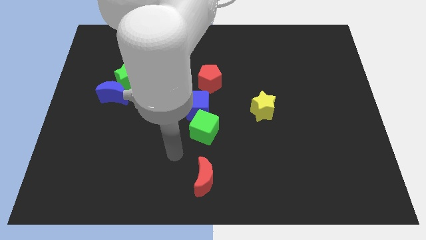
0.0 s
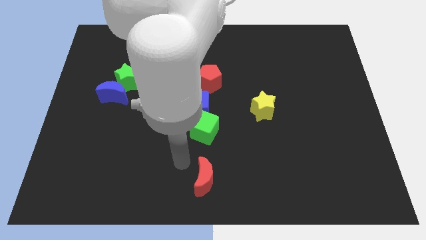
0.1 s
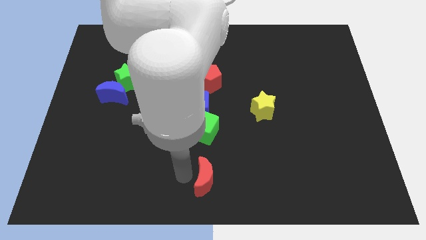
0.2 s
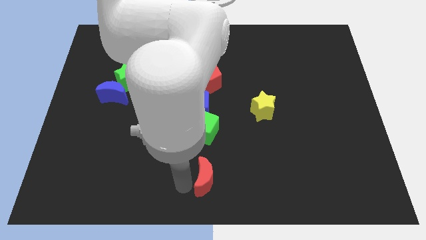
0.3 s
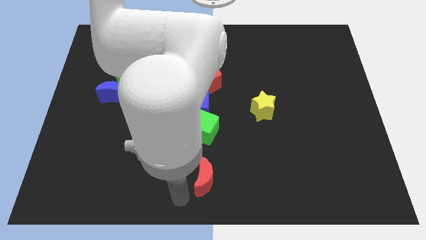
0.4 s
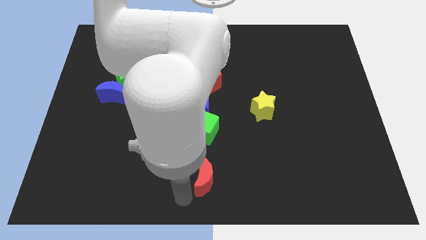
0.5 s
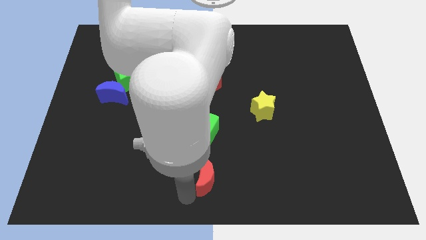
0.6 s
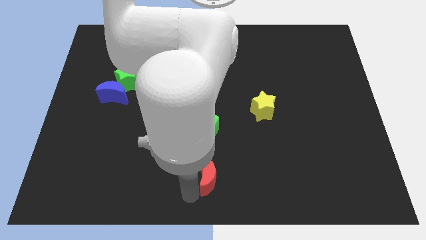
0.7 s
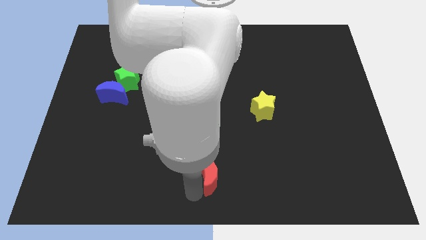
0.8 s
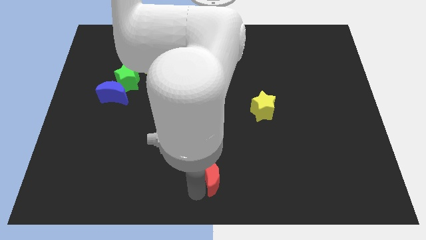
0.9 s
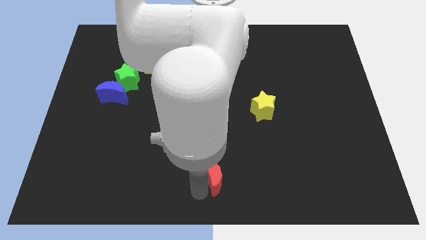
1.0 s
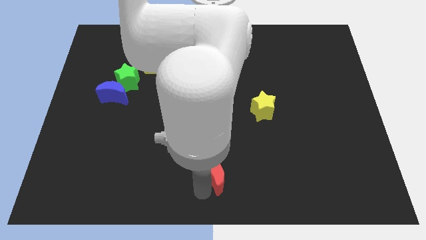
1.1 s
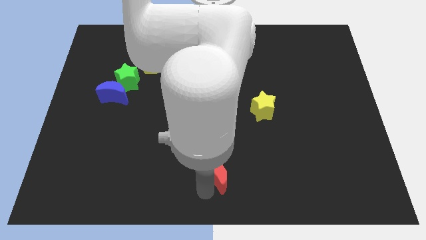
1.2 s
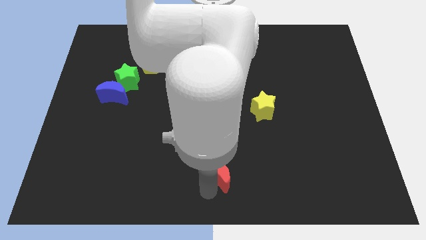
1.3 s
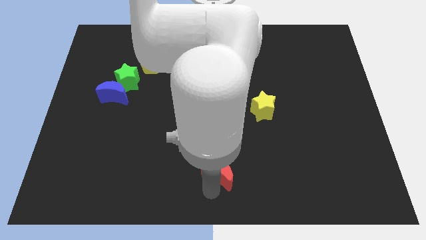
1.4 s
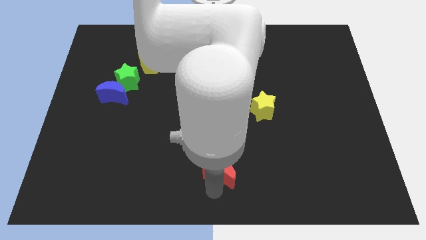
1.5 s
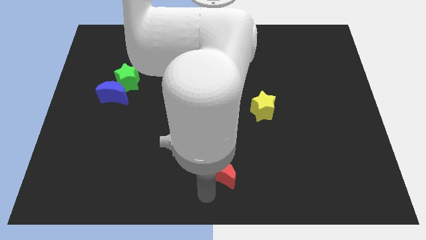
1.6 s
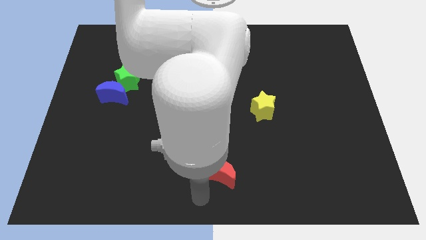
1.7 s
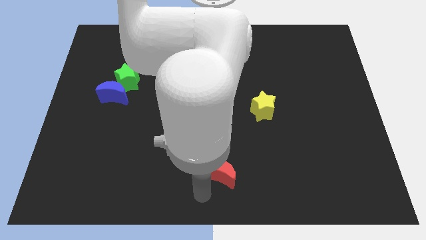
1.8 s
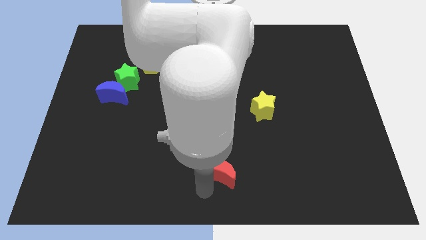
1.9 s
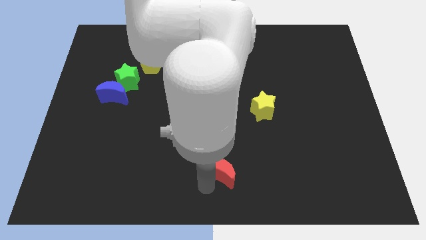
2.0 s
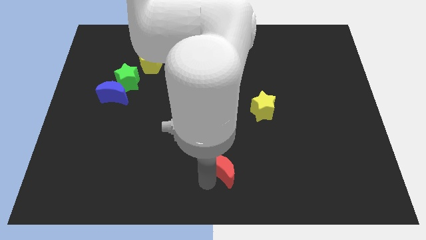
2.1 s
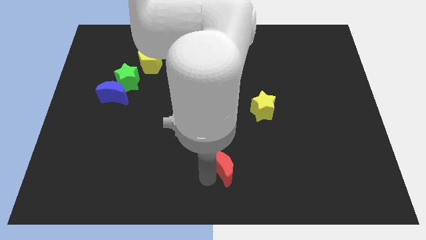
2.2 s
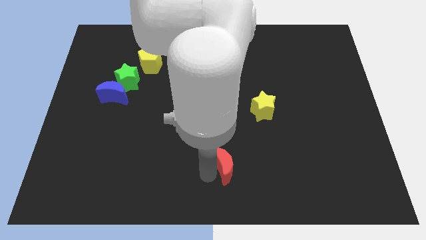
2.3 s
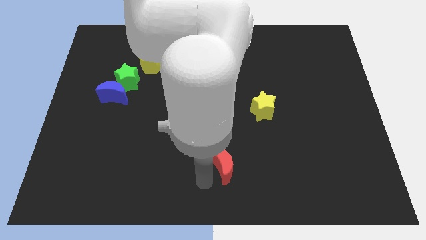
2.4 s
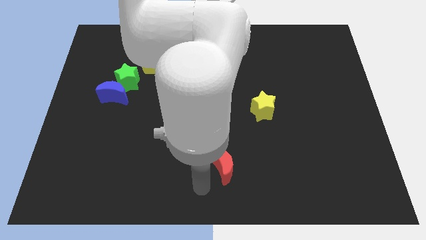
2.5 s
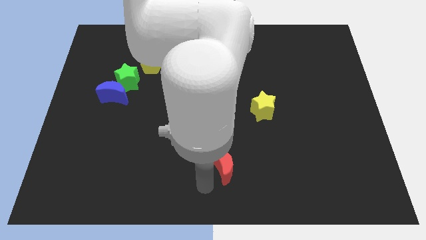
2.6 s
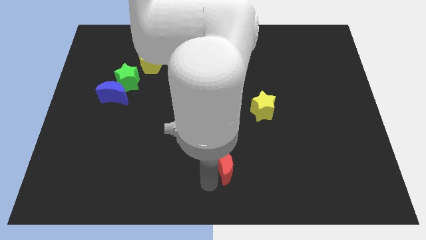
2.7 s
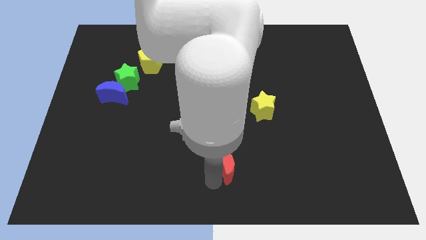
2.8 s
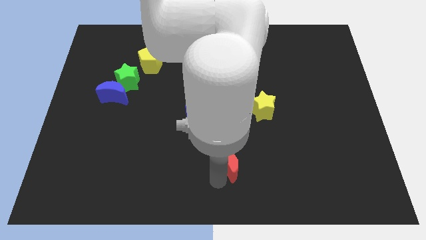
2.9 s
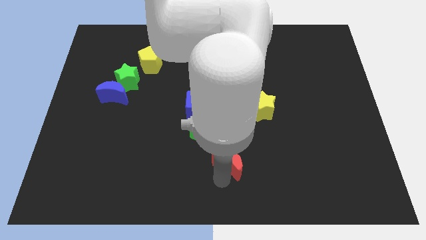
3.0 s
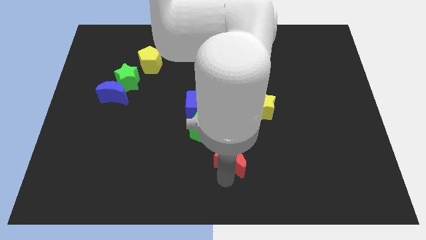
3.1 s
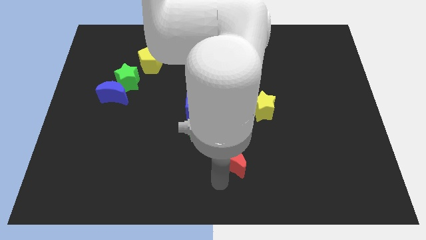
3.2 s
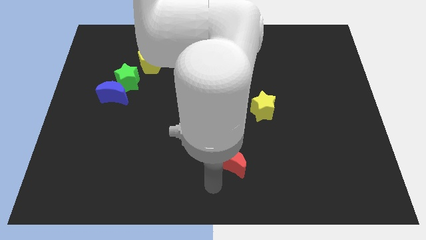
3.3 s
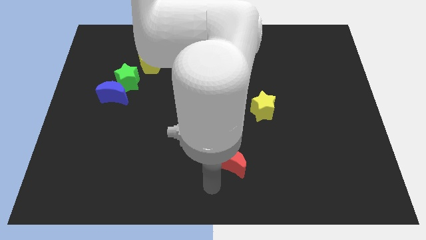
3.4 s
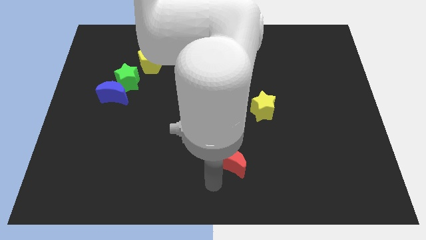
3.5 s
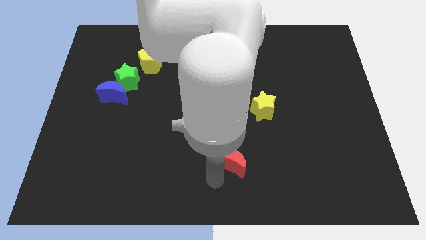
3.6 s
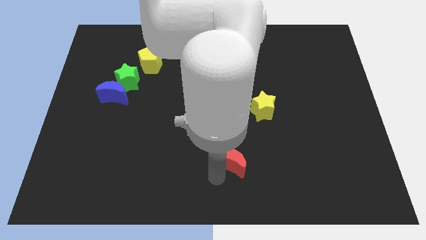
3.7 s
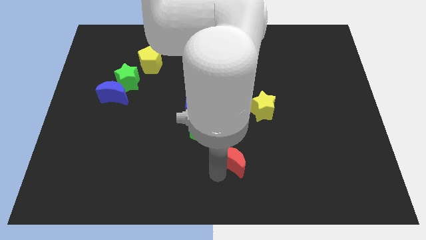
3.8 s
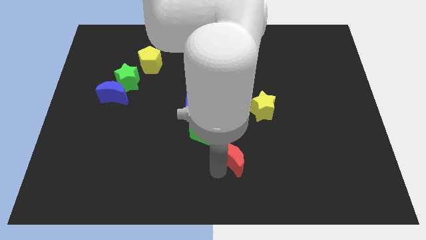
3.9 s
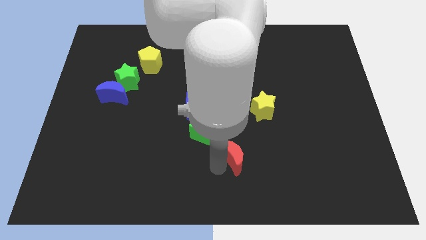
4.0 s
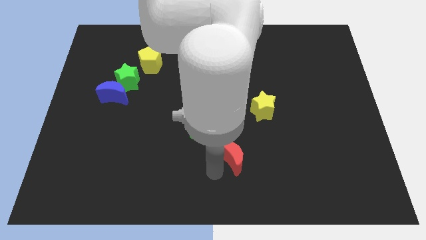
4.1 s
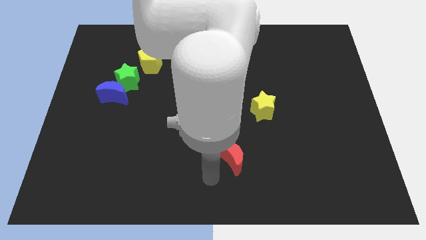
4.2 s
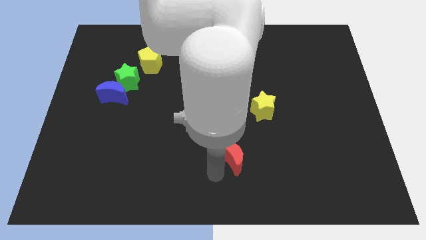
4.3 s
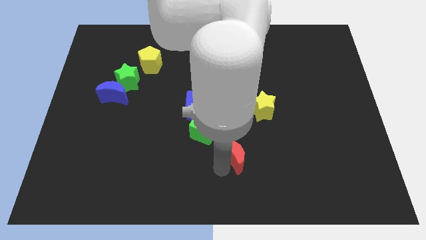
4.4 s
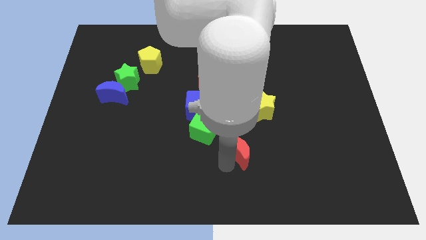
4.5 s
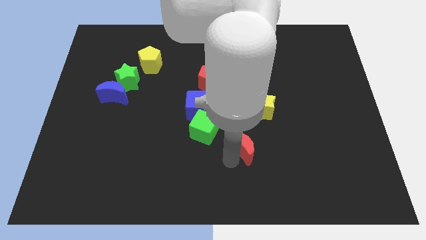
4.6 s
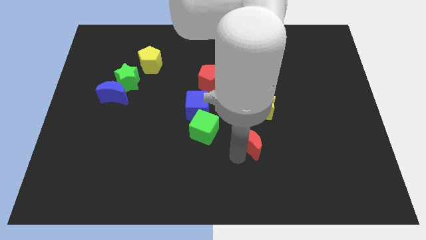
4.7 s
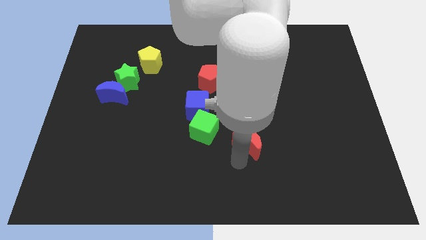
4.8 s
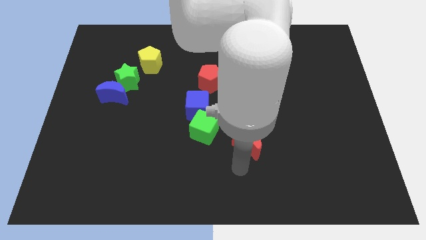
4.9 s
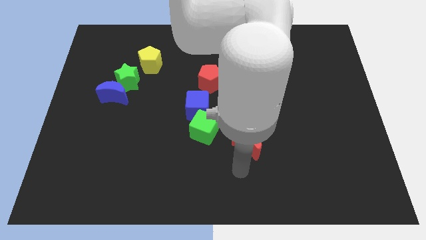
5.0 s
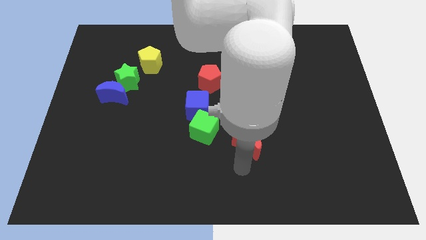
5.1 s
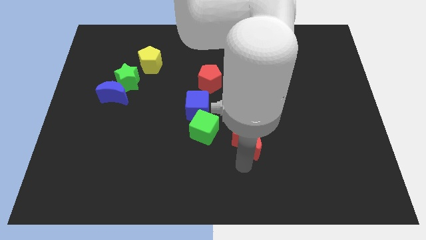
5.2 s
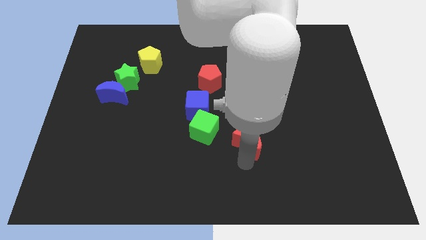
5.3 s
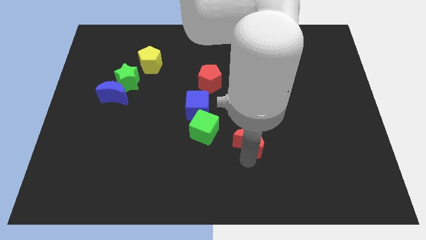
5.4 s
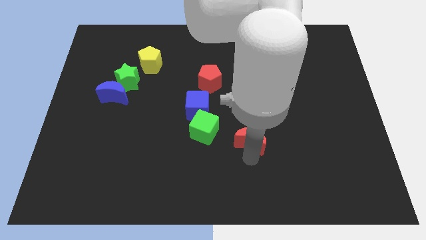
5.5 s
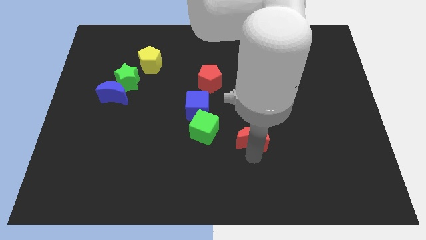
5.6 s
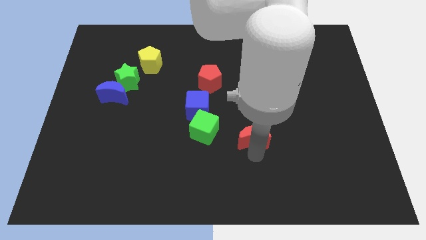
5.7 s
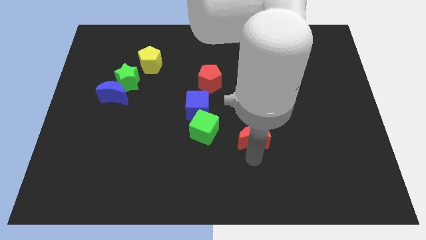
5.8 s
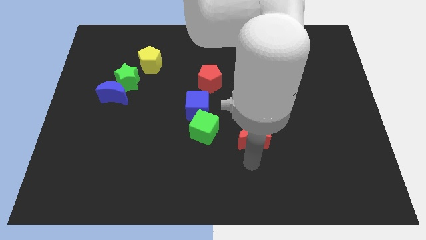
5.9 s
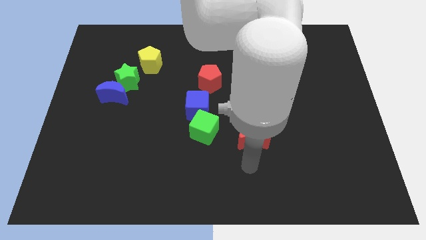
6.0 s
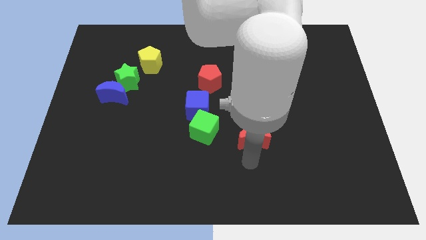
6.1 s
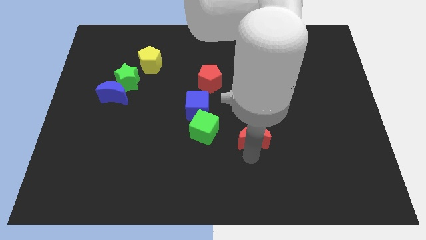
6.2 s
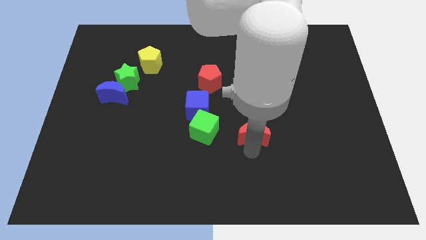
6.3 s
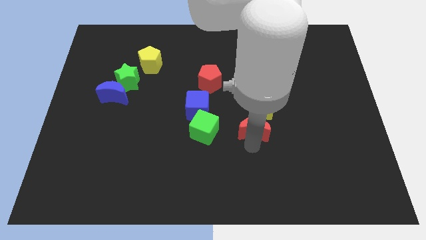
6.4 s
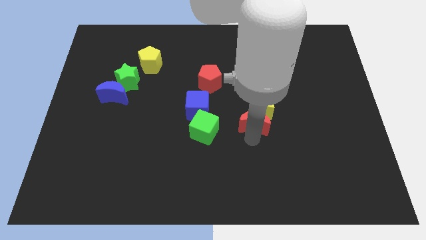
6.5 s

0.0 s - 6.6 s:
put the red moon to the yellow star
